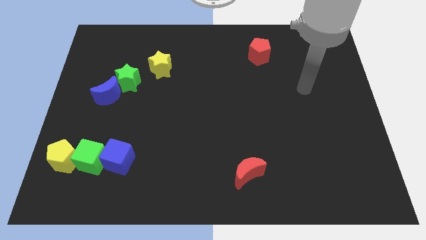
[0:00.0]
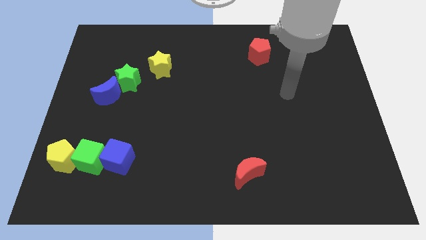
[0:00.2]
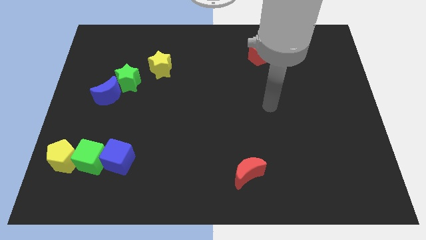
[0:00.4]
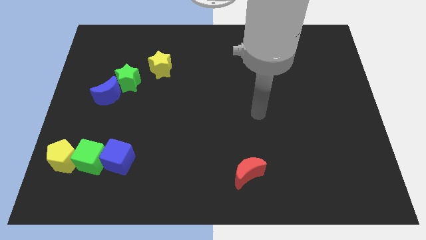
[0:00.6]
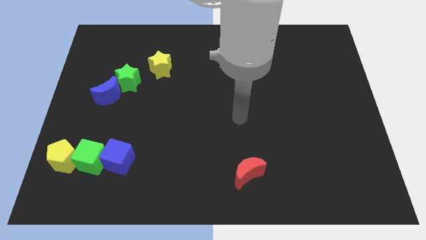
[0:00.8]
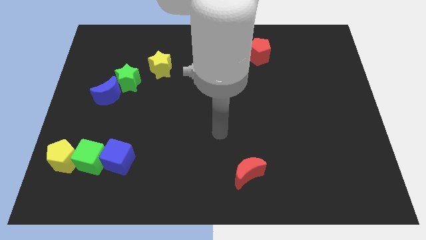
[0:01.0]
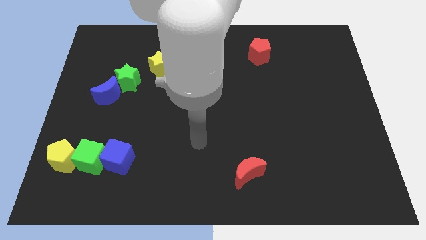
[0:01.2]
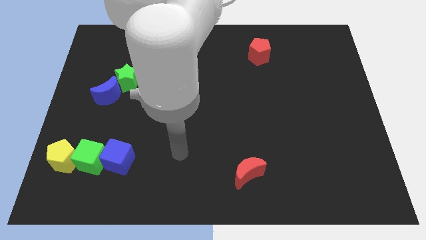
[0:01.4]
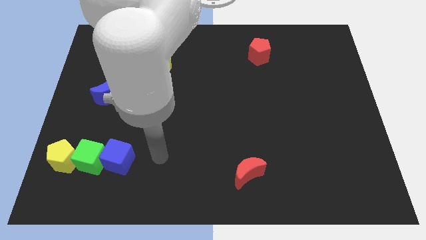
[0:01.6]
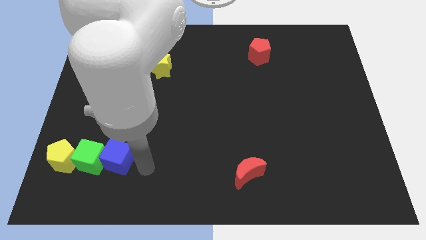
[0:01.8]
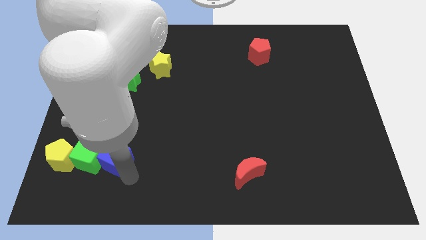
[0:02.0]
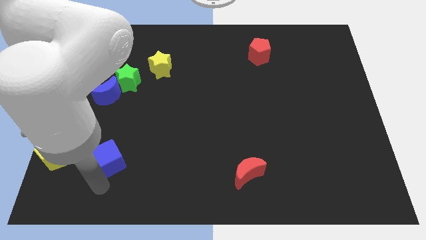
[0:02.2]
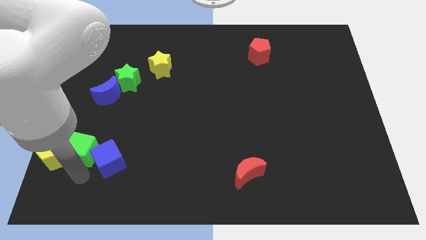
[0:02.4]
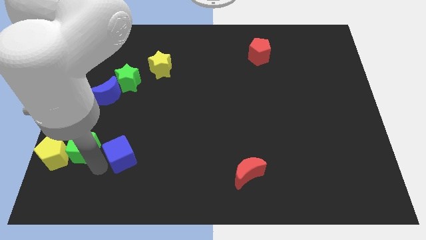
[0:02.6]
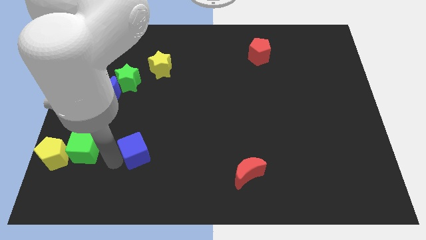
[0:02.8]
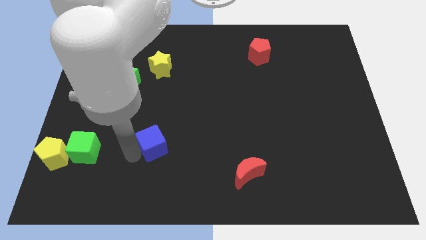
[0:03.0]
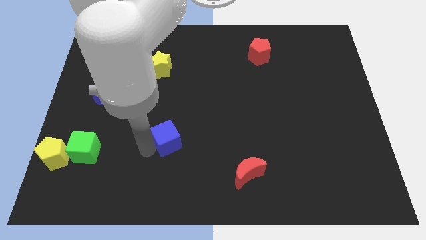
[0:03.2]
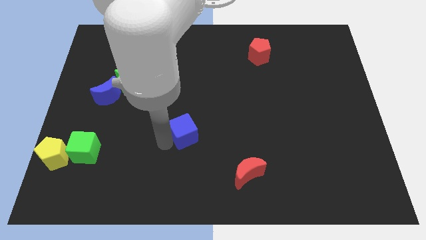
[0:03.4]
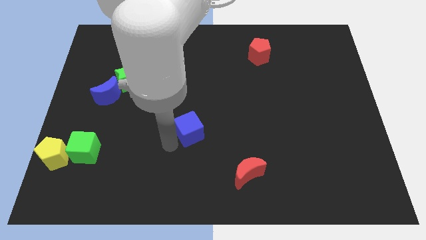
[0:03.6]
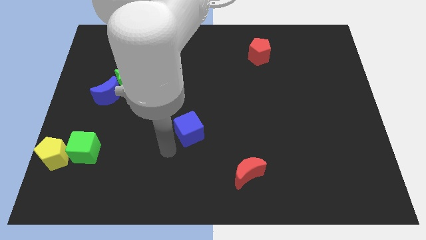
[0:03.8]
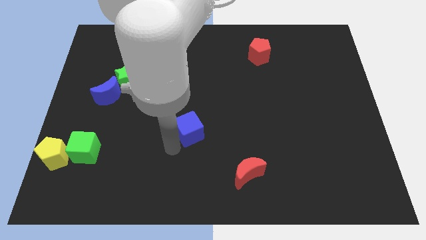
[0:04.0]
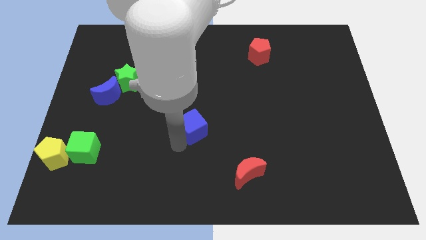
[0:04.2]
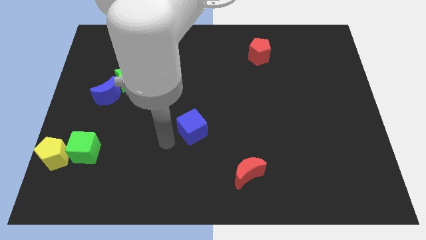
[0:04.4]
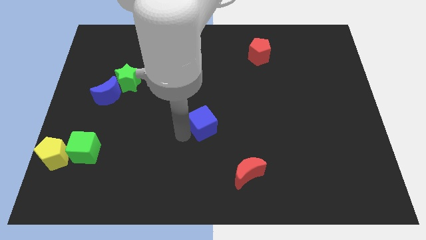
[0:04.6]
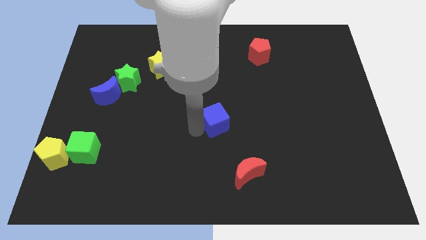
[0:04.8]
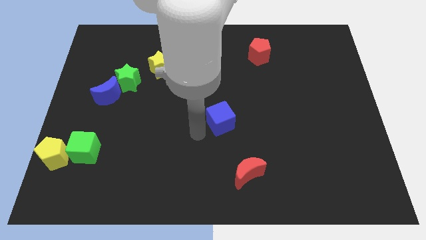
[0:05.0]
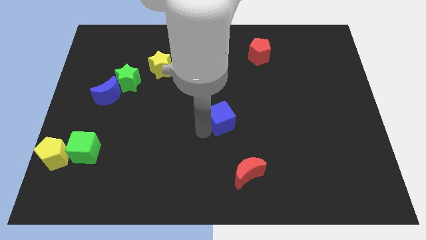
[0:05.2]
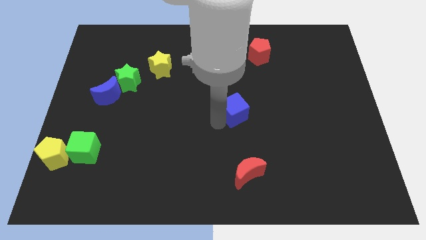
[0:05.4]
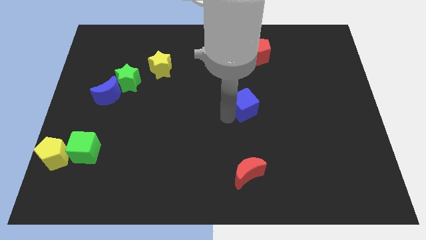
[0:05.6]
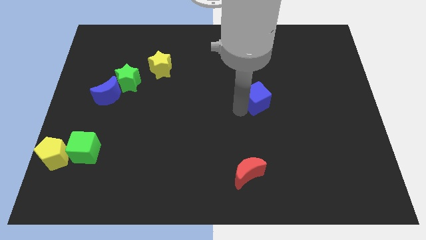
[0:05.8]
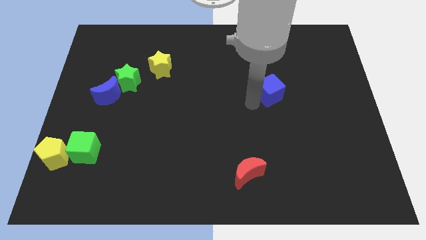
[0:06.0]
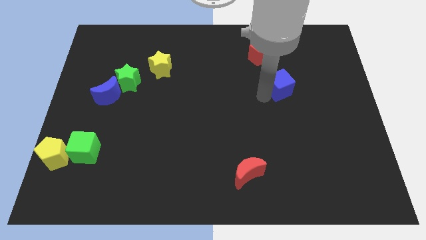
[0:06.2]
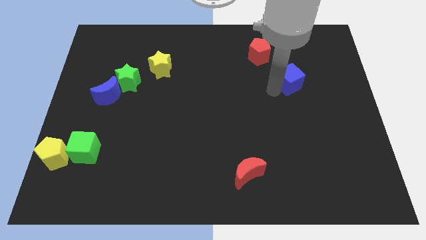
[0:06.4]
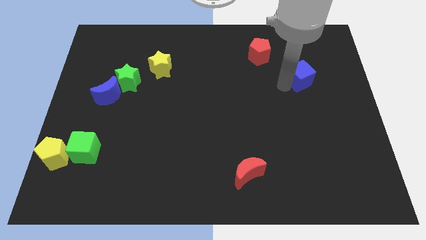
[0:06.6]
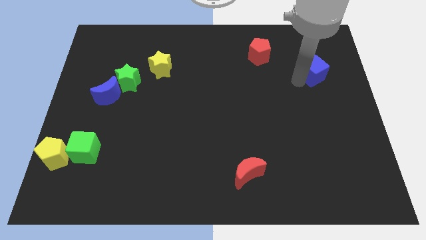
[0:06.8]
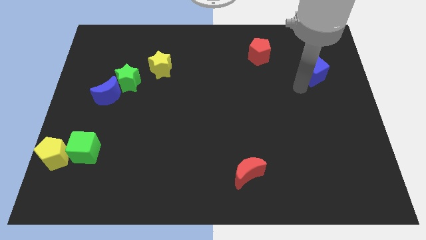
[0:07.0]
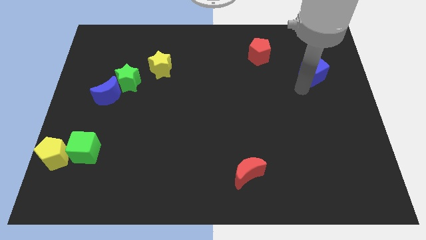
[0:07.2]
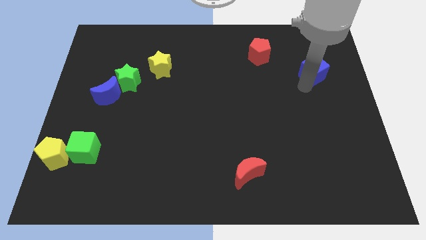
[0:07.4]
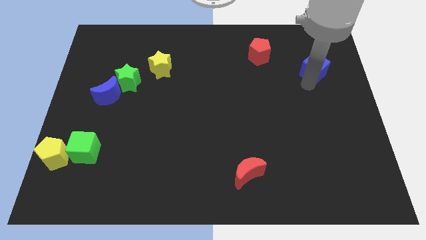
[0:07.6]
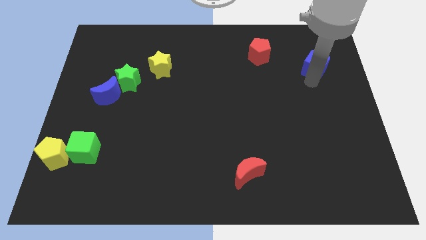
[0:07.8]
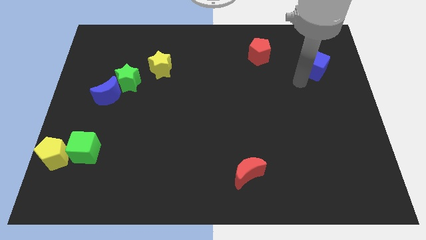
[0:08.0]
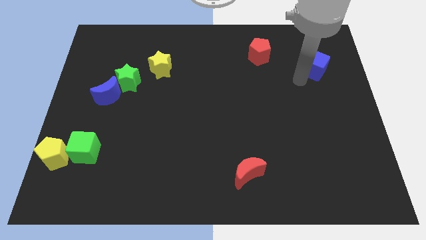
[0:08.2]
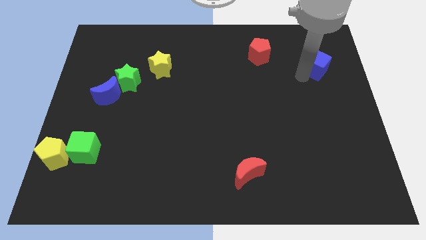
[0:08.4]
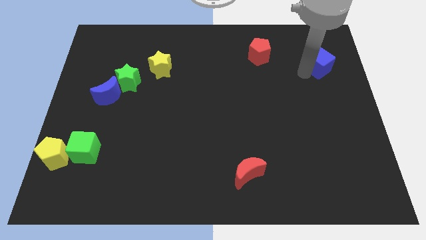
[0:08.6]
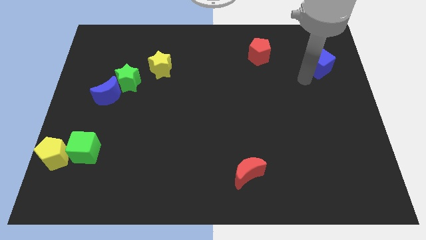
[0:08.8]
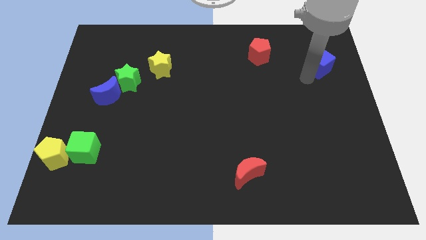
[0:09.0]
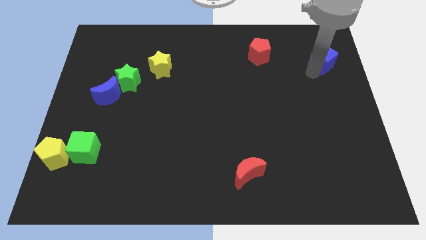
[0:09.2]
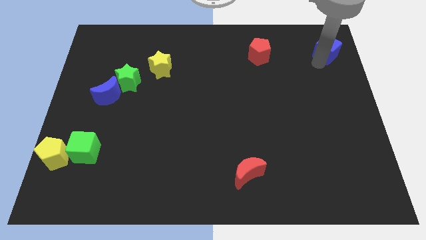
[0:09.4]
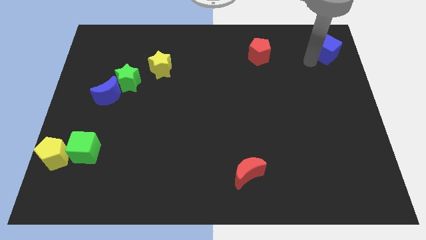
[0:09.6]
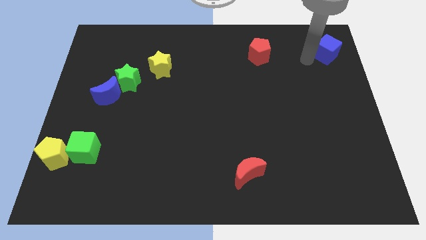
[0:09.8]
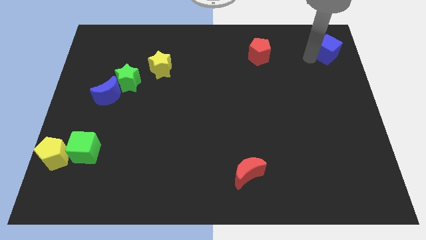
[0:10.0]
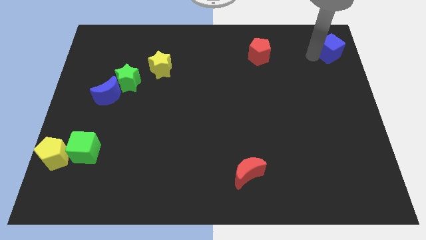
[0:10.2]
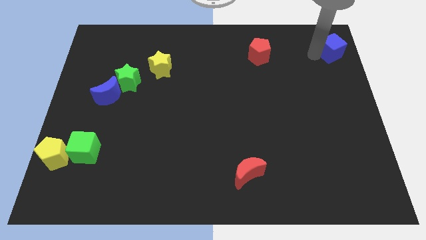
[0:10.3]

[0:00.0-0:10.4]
put the blue cube to the upper right corner

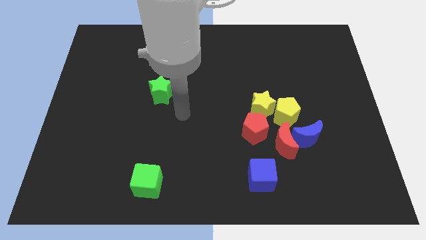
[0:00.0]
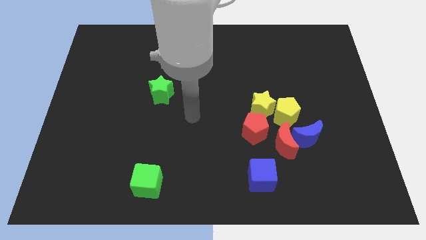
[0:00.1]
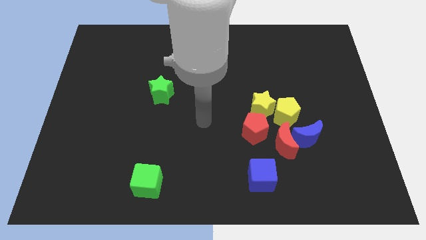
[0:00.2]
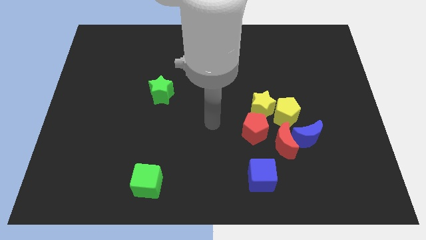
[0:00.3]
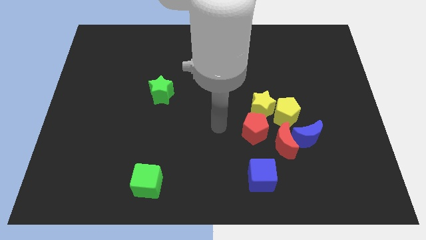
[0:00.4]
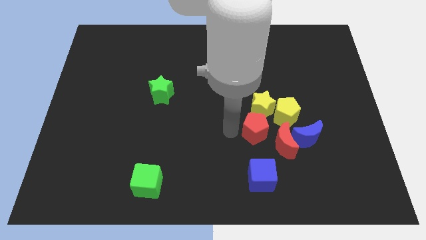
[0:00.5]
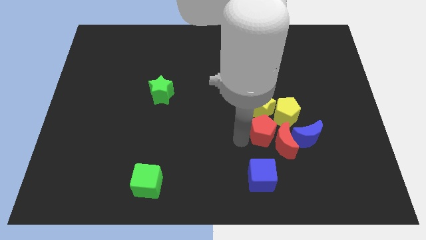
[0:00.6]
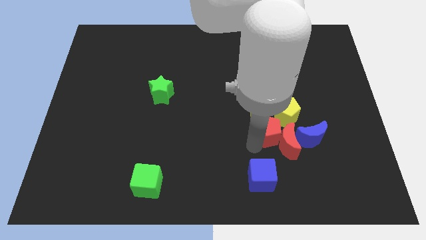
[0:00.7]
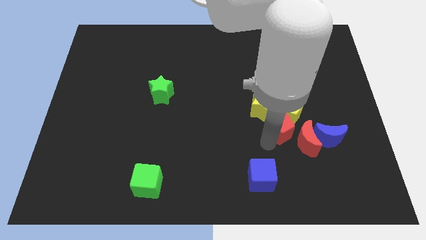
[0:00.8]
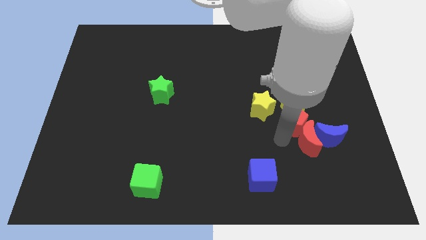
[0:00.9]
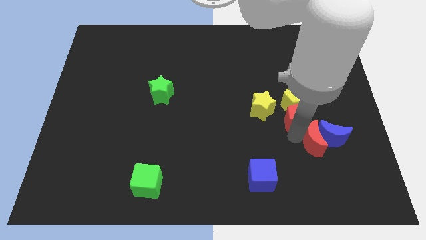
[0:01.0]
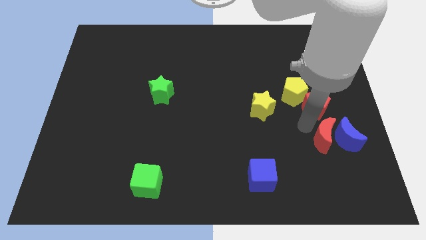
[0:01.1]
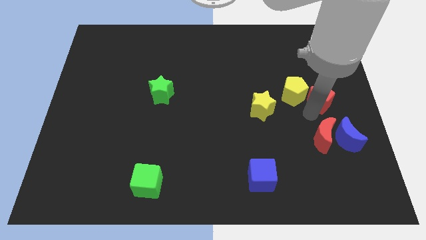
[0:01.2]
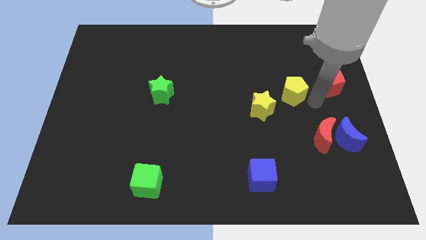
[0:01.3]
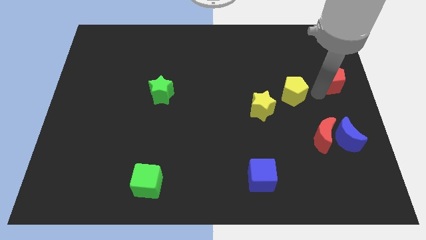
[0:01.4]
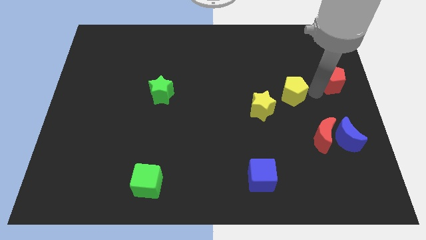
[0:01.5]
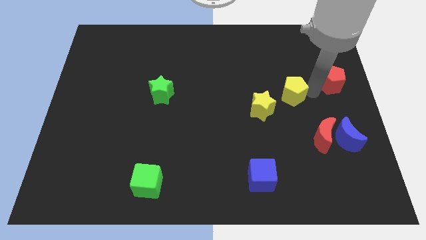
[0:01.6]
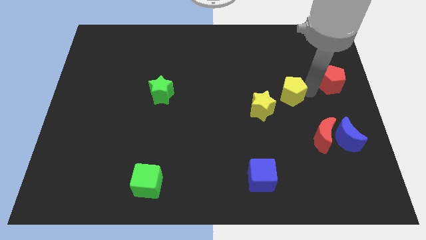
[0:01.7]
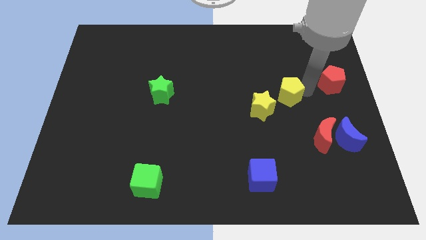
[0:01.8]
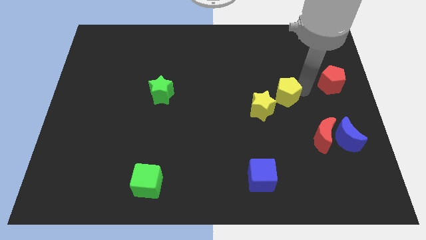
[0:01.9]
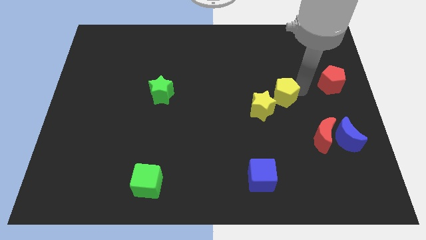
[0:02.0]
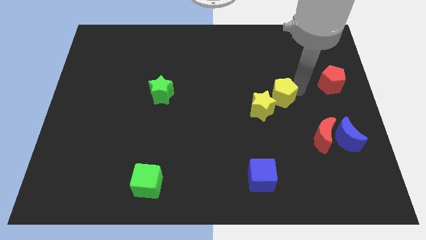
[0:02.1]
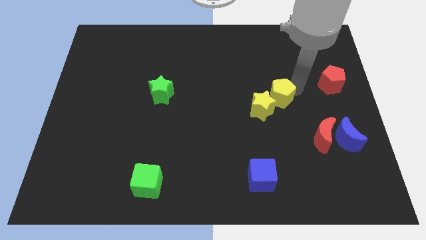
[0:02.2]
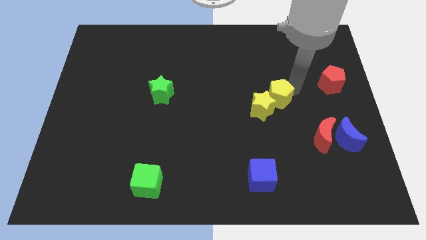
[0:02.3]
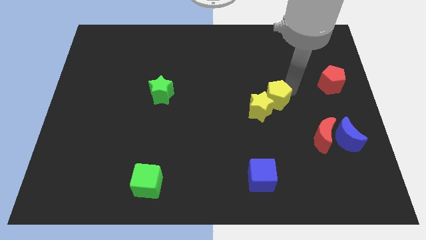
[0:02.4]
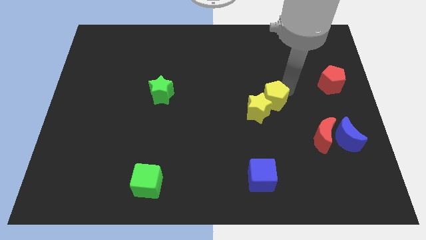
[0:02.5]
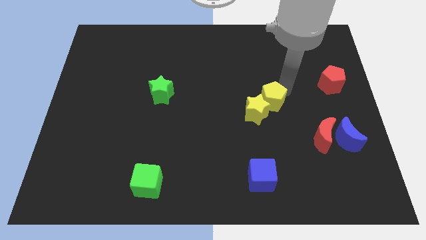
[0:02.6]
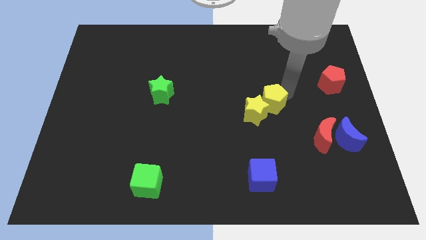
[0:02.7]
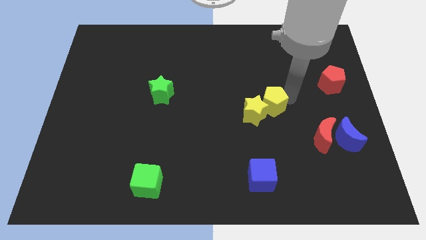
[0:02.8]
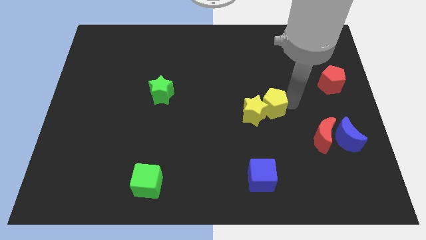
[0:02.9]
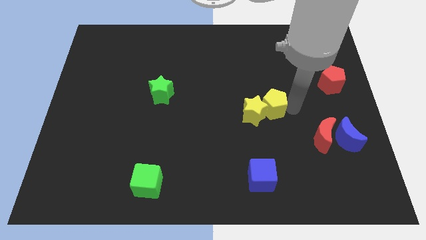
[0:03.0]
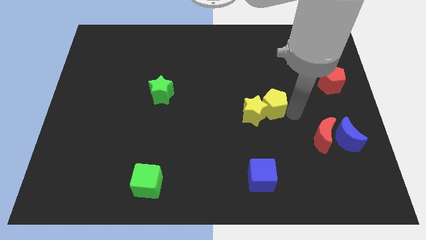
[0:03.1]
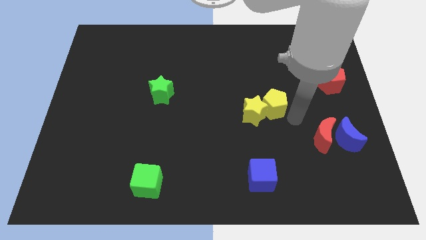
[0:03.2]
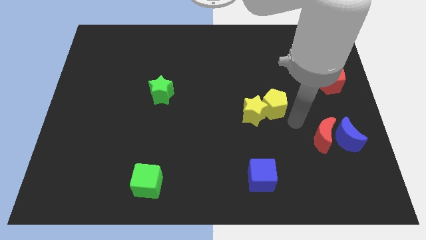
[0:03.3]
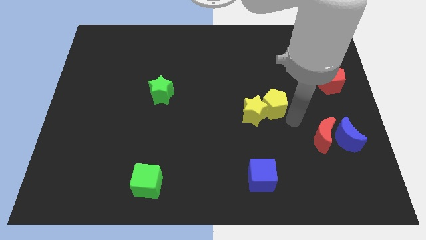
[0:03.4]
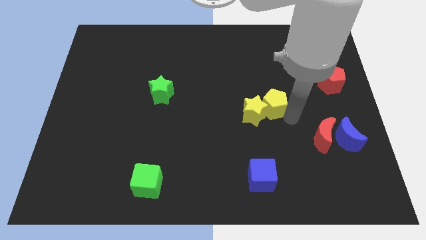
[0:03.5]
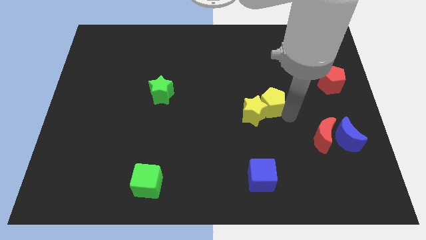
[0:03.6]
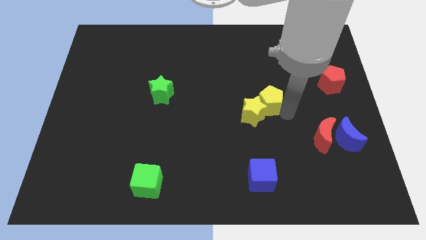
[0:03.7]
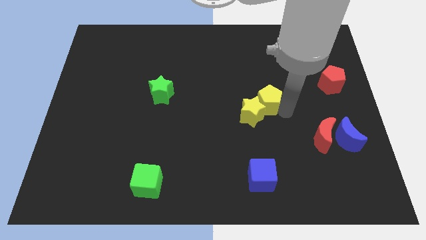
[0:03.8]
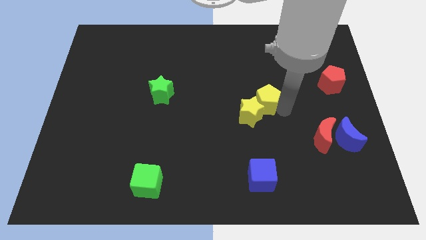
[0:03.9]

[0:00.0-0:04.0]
put the yellow pentagon to the middle
